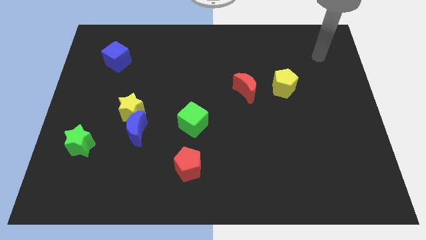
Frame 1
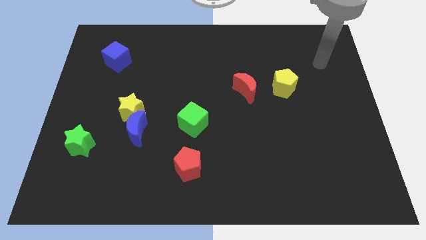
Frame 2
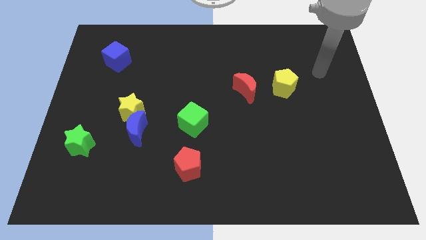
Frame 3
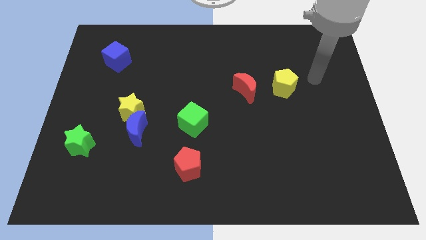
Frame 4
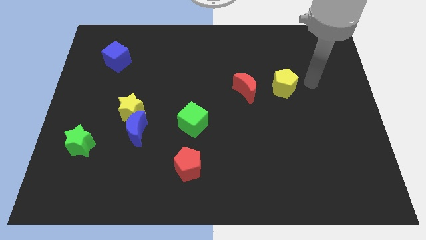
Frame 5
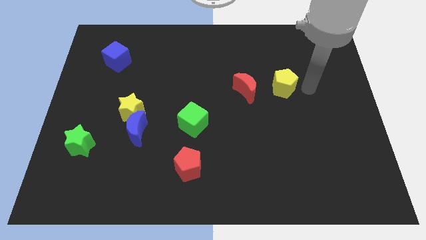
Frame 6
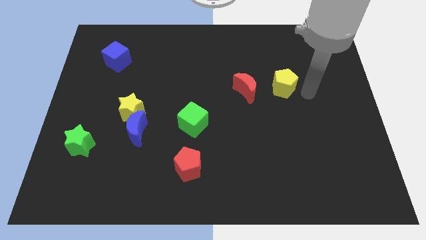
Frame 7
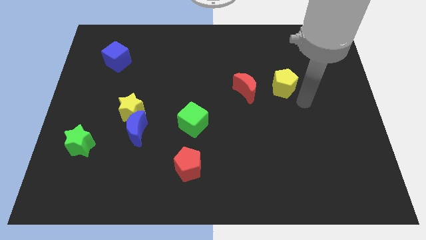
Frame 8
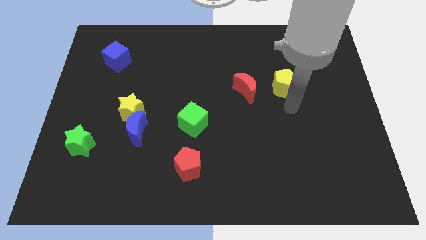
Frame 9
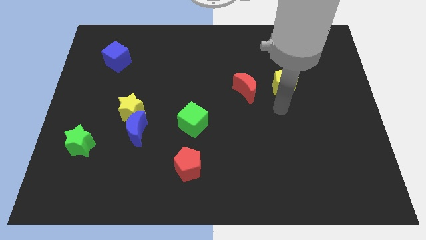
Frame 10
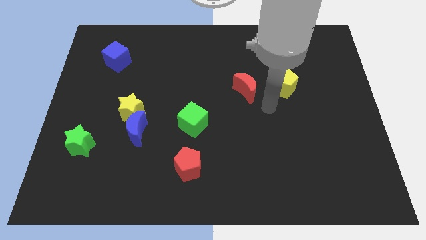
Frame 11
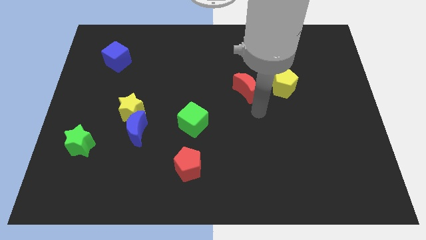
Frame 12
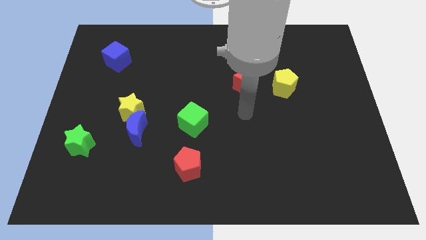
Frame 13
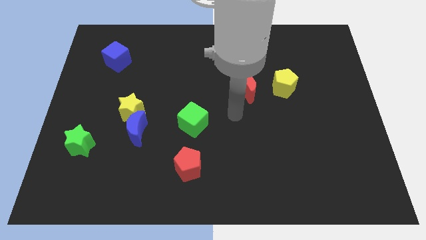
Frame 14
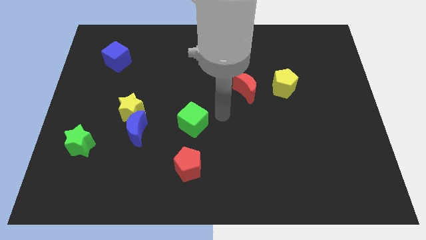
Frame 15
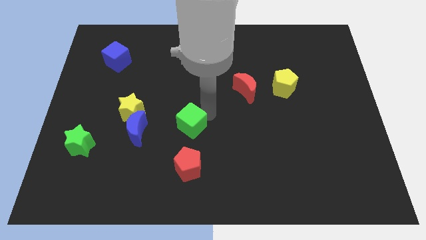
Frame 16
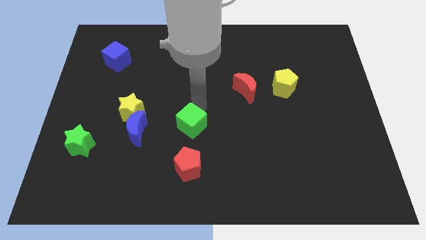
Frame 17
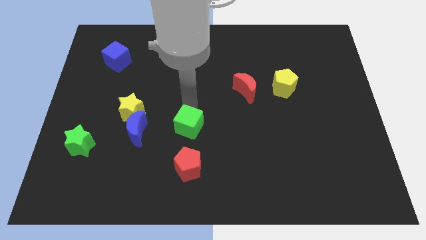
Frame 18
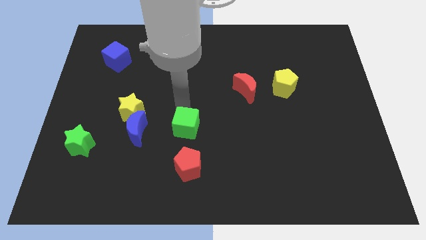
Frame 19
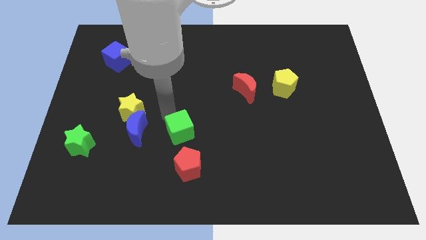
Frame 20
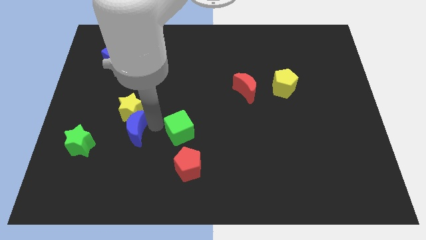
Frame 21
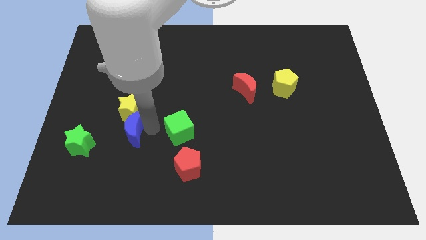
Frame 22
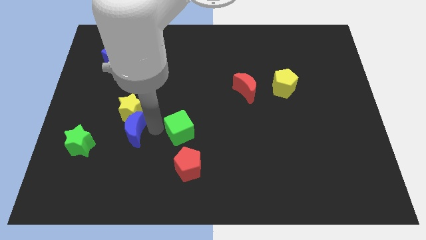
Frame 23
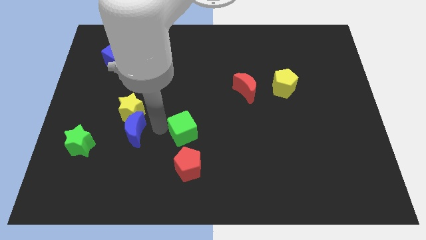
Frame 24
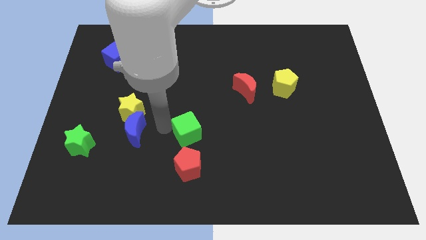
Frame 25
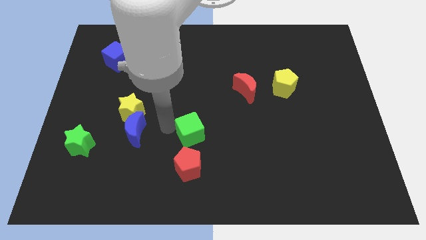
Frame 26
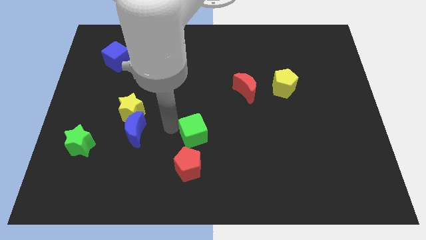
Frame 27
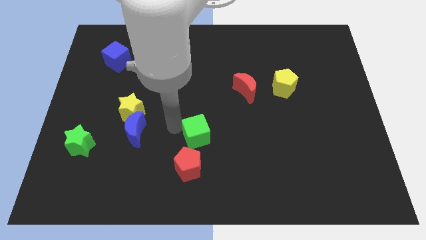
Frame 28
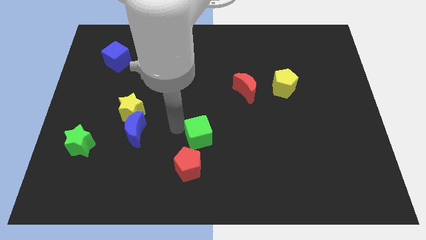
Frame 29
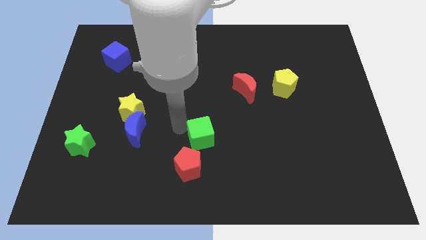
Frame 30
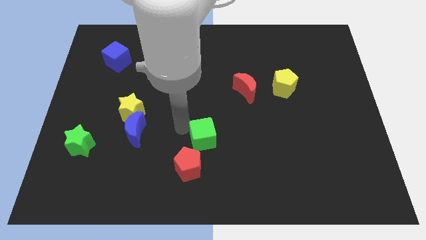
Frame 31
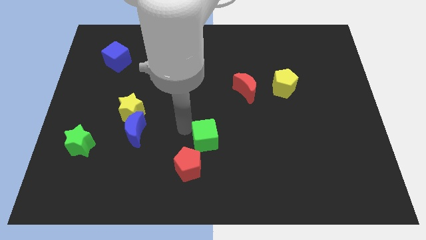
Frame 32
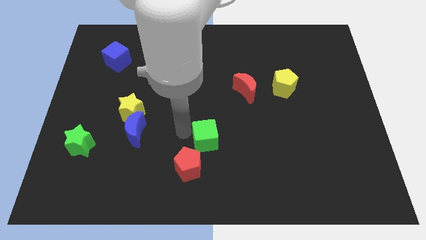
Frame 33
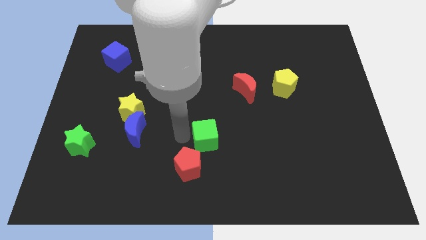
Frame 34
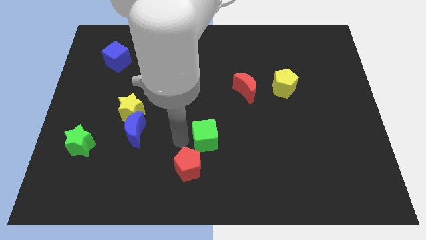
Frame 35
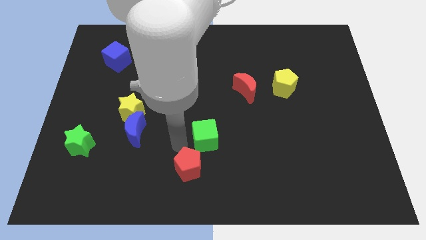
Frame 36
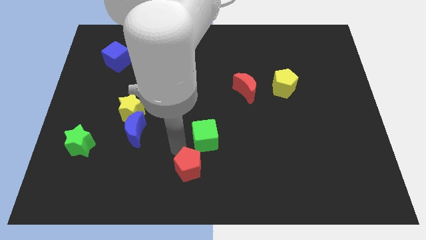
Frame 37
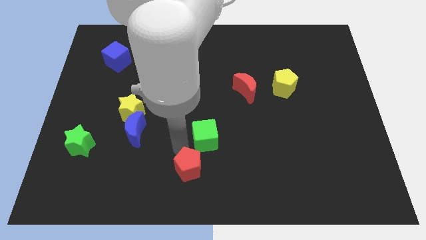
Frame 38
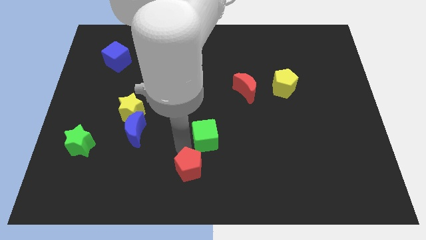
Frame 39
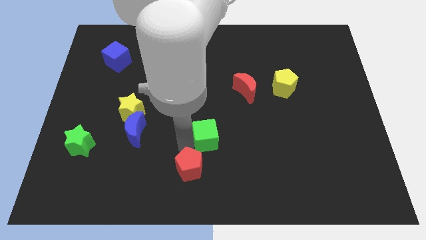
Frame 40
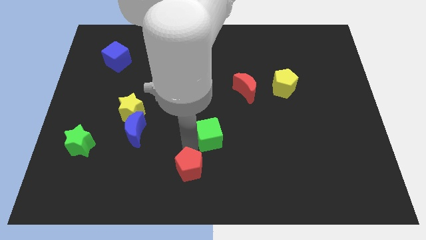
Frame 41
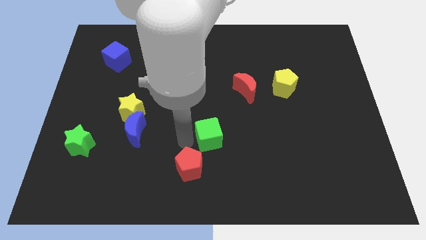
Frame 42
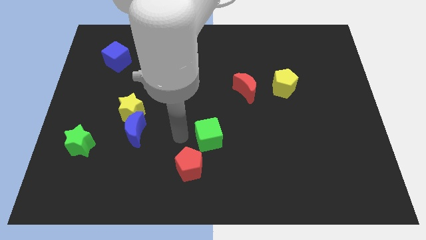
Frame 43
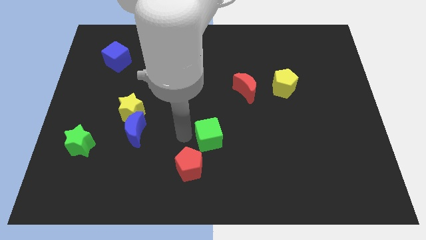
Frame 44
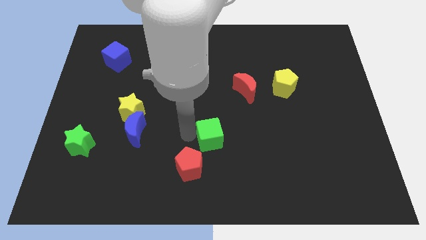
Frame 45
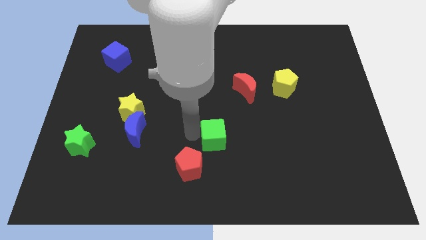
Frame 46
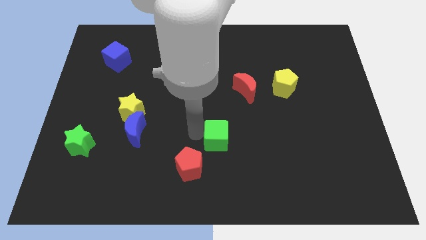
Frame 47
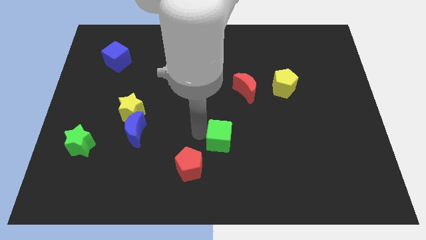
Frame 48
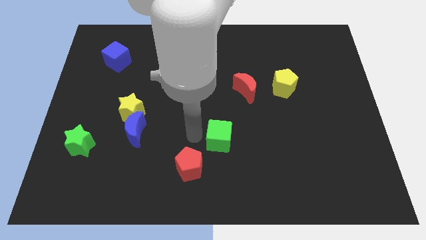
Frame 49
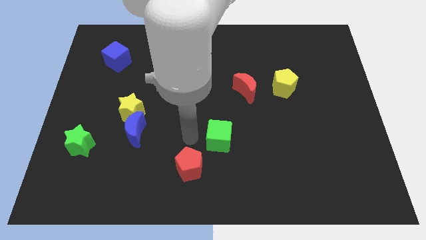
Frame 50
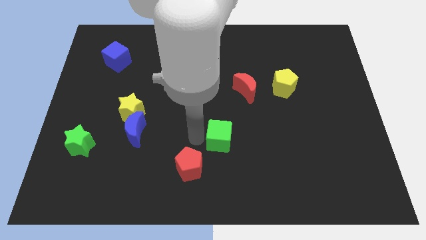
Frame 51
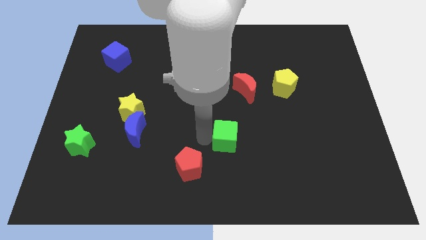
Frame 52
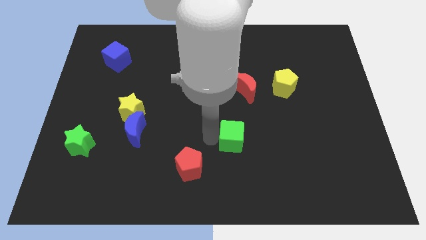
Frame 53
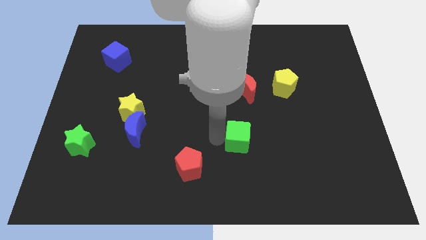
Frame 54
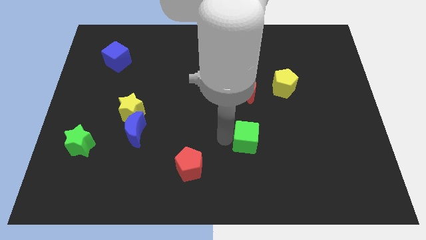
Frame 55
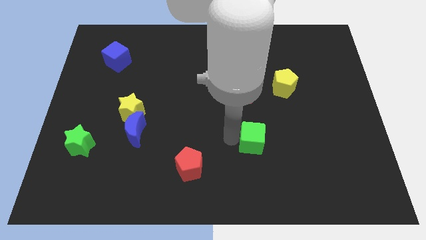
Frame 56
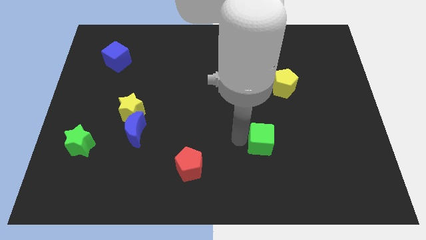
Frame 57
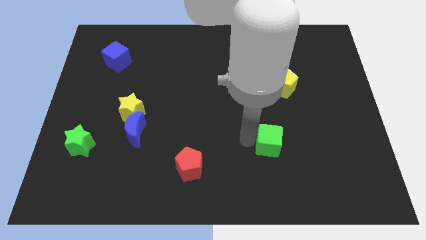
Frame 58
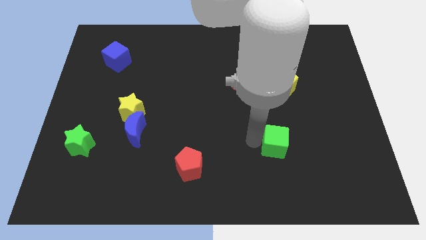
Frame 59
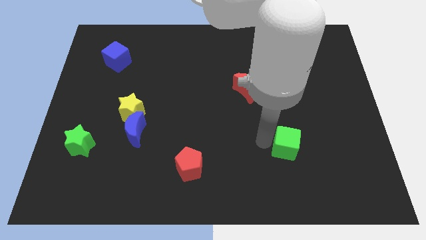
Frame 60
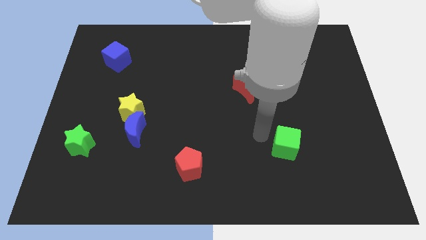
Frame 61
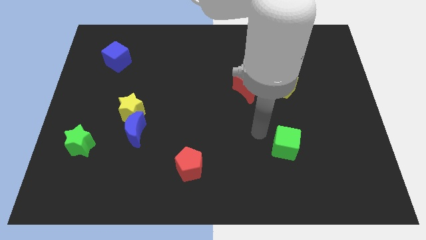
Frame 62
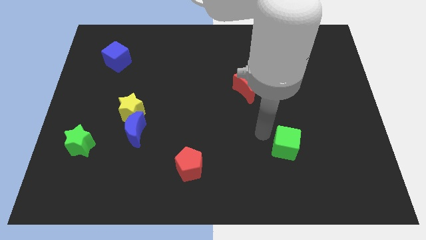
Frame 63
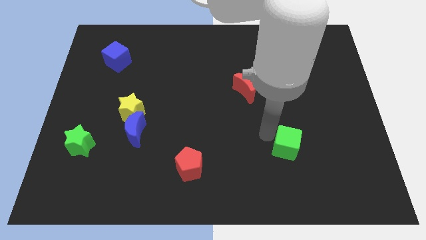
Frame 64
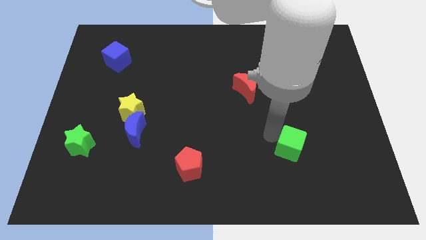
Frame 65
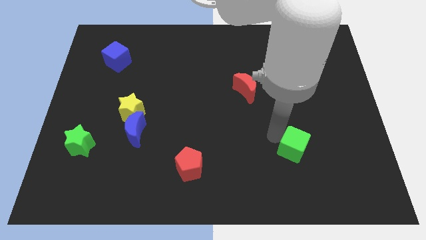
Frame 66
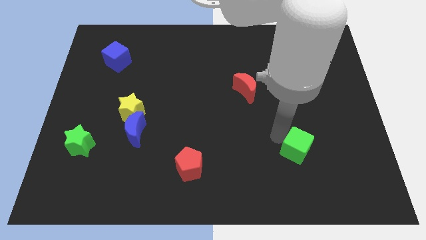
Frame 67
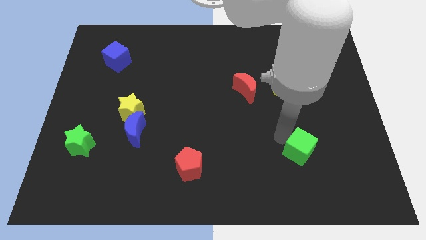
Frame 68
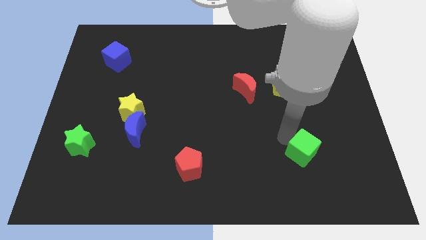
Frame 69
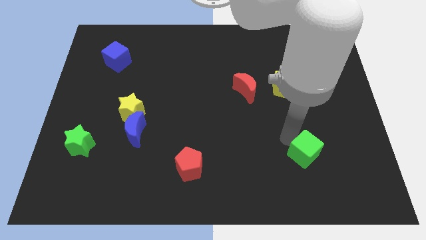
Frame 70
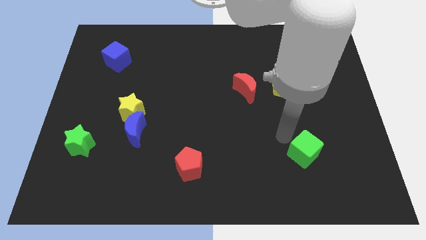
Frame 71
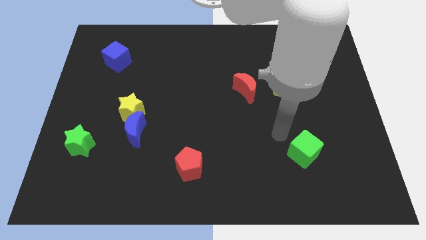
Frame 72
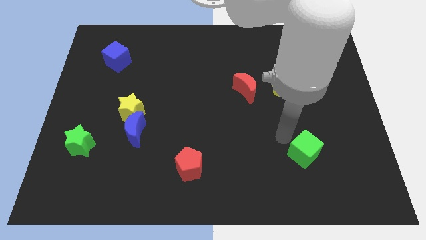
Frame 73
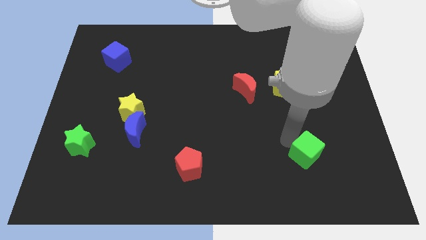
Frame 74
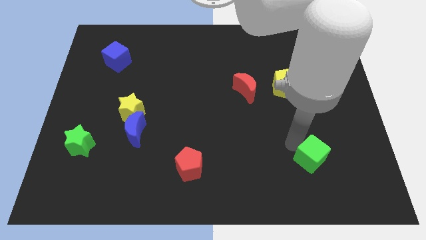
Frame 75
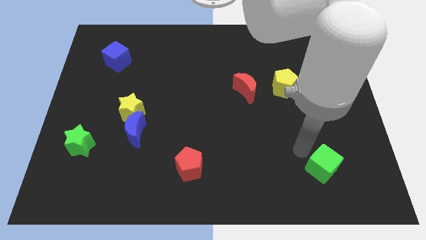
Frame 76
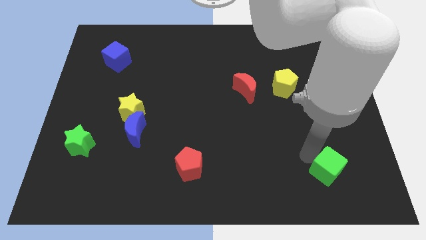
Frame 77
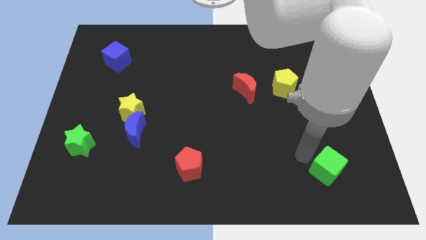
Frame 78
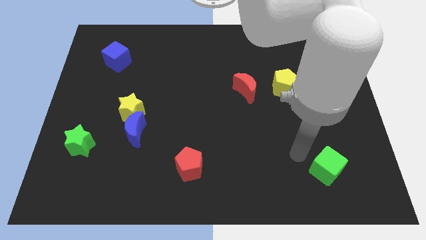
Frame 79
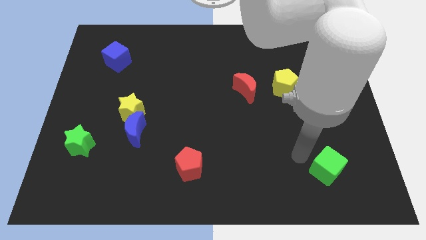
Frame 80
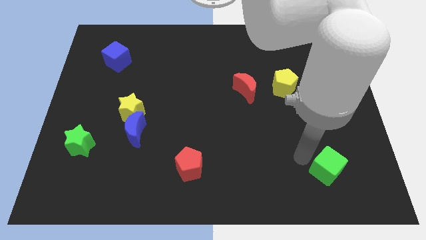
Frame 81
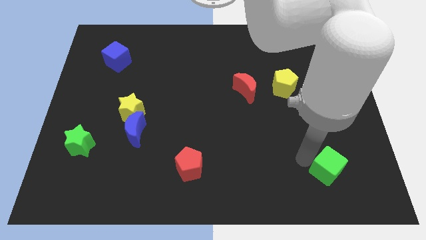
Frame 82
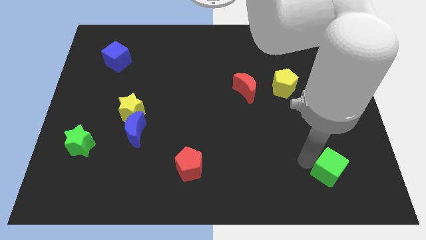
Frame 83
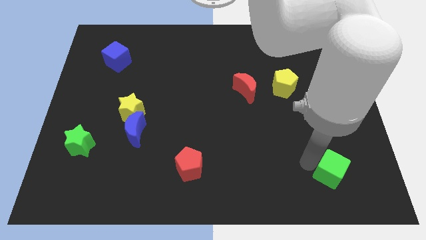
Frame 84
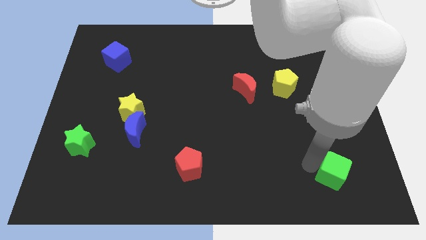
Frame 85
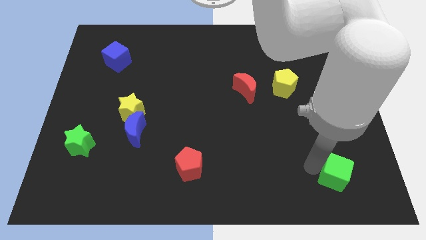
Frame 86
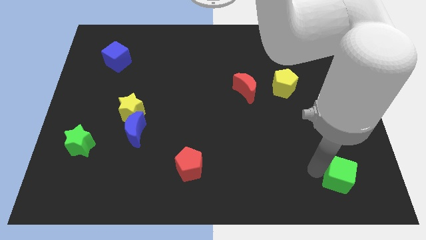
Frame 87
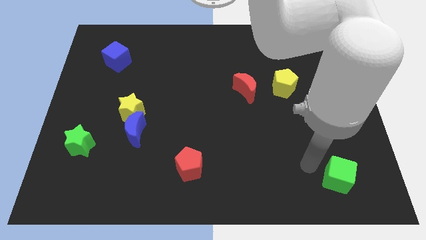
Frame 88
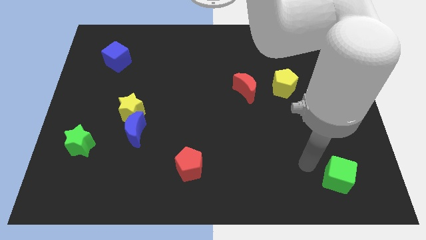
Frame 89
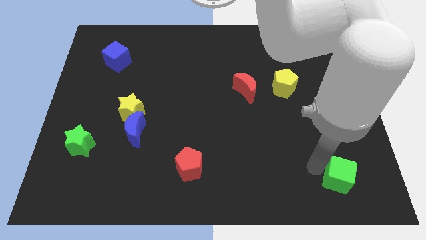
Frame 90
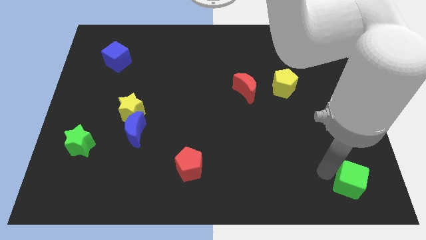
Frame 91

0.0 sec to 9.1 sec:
slide the green cube to the lower right corner
